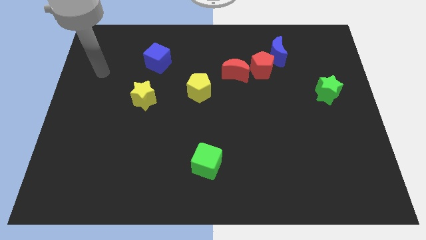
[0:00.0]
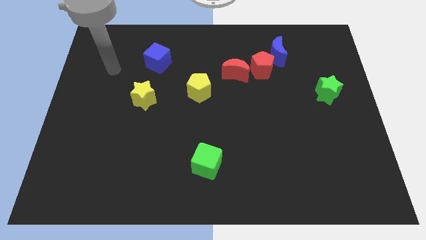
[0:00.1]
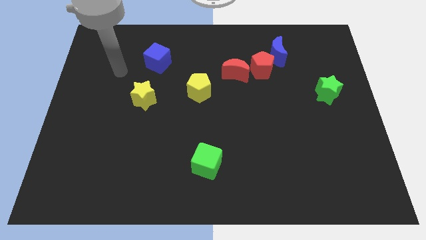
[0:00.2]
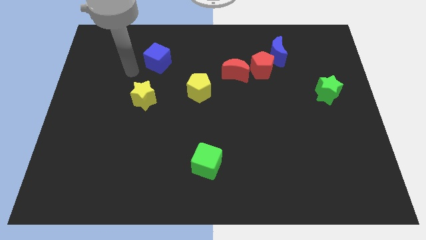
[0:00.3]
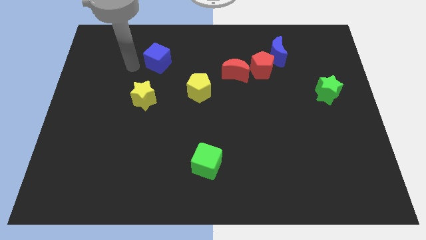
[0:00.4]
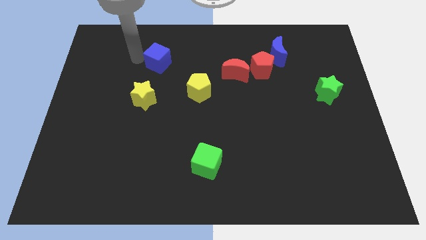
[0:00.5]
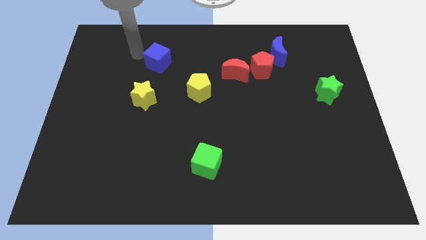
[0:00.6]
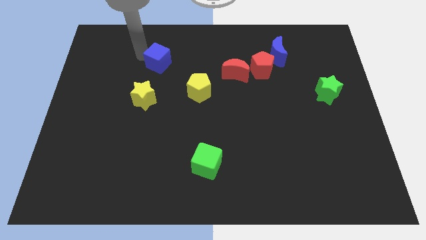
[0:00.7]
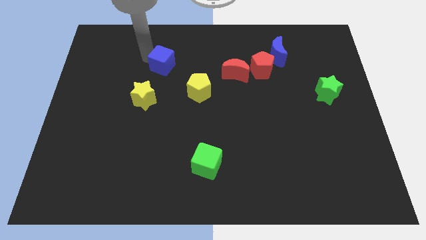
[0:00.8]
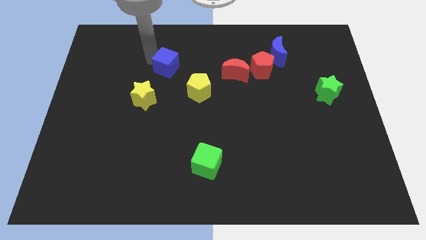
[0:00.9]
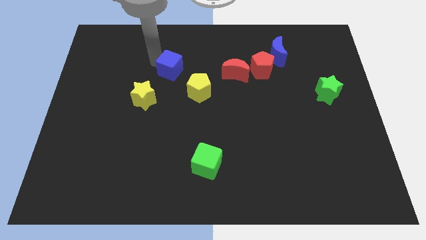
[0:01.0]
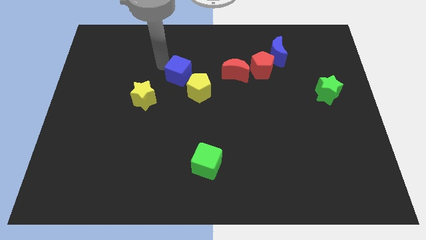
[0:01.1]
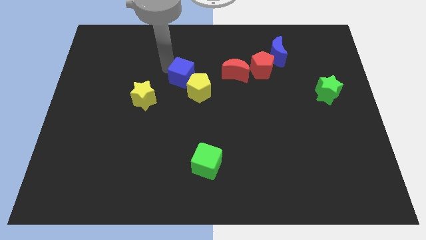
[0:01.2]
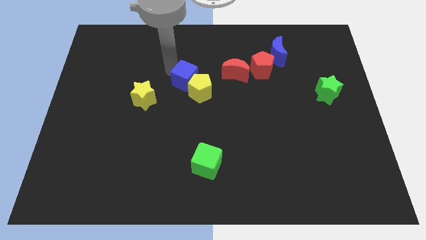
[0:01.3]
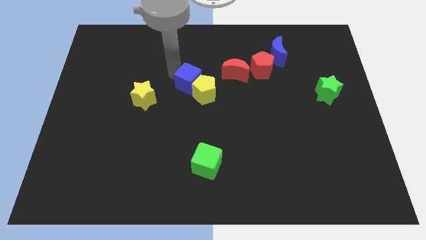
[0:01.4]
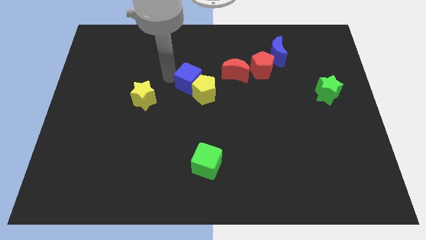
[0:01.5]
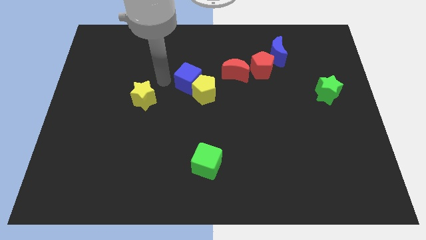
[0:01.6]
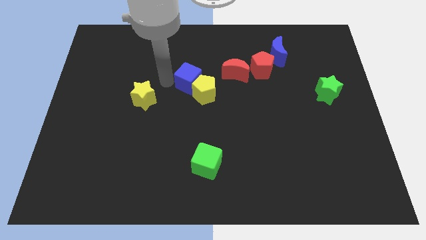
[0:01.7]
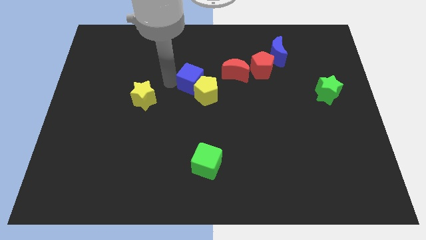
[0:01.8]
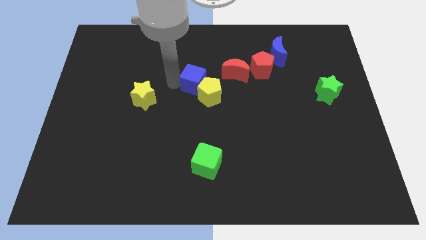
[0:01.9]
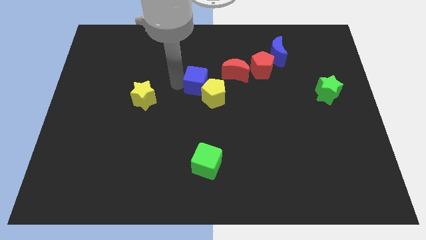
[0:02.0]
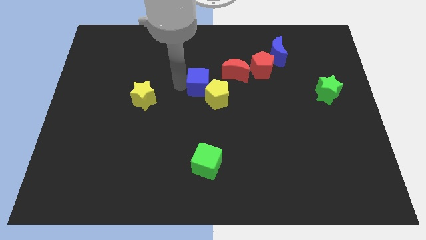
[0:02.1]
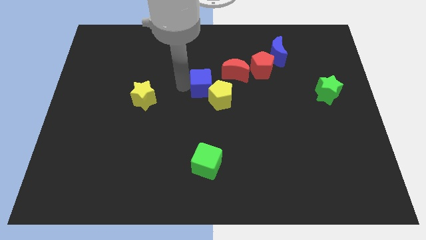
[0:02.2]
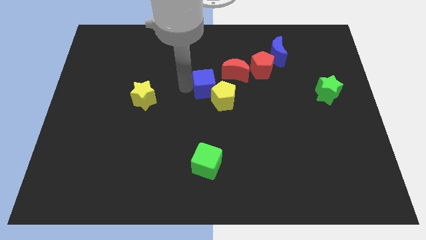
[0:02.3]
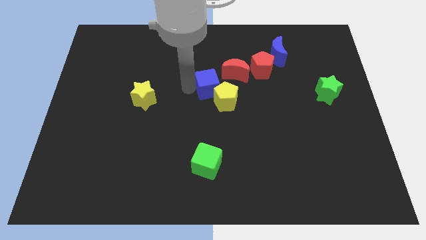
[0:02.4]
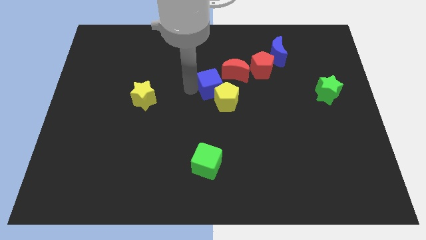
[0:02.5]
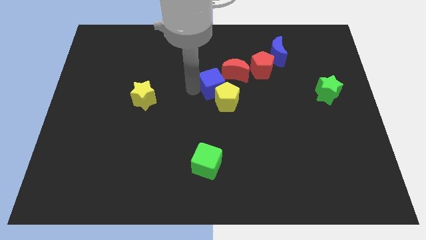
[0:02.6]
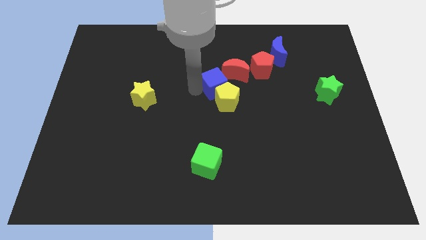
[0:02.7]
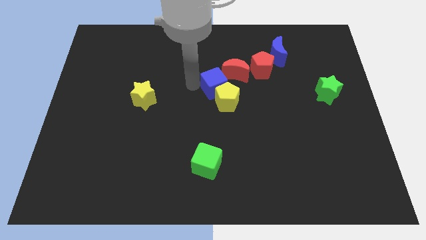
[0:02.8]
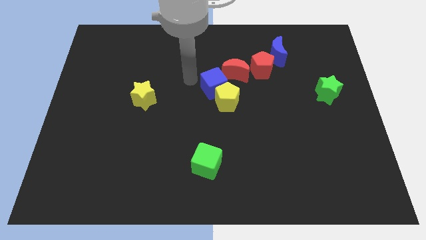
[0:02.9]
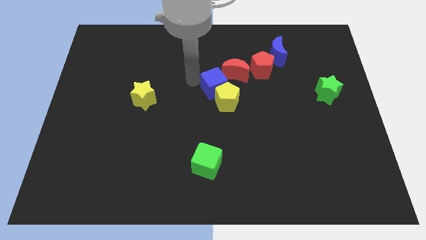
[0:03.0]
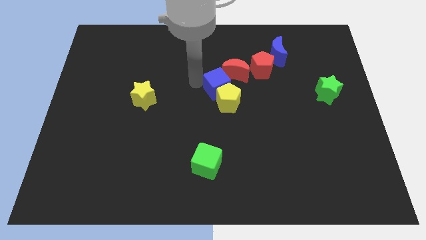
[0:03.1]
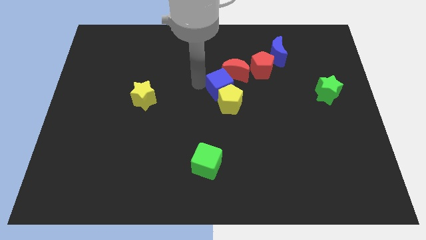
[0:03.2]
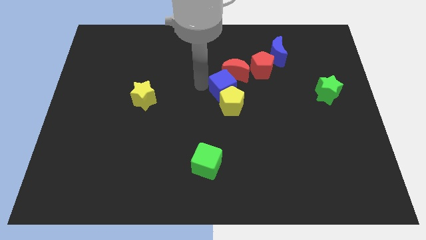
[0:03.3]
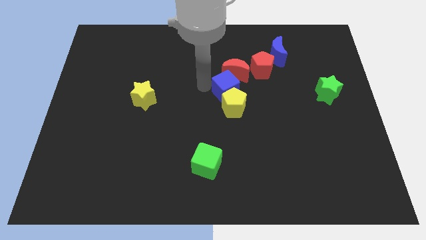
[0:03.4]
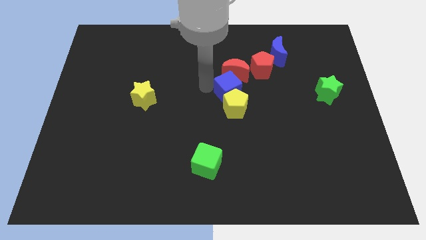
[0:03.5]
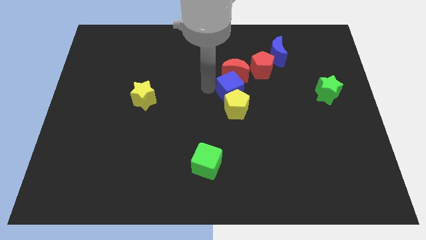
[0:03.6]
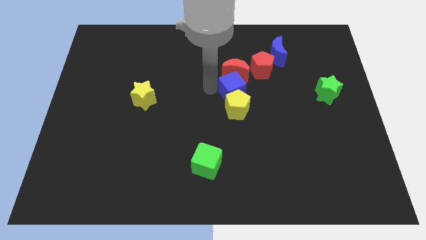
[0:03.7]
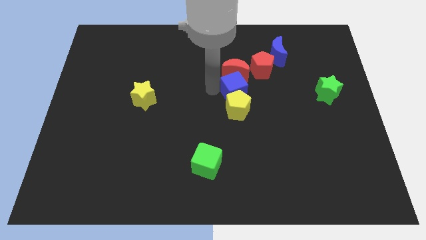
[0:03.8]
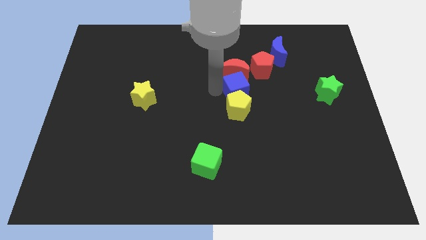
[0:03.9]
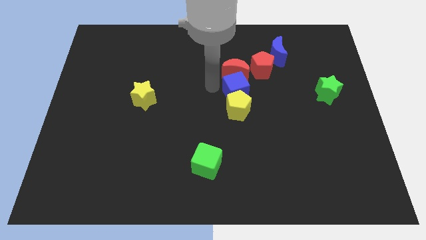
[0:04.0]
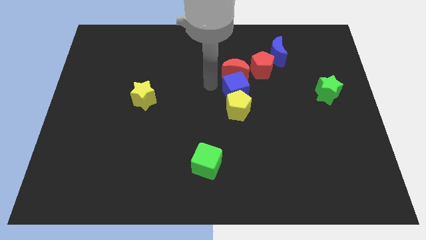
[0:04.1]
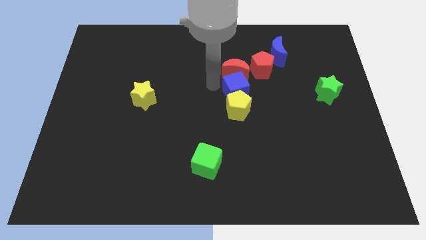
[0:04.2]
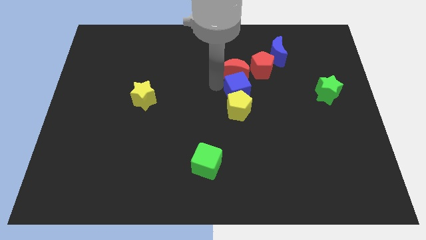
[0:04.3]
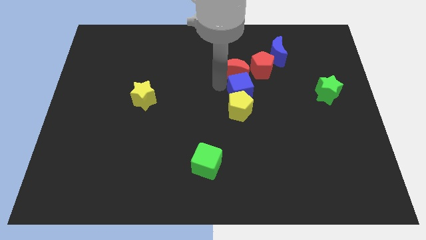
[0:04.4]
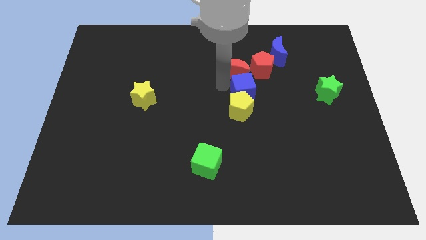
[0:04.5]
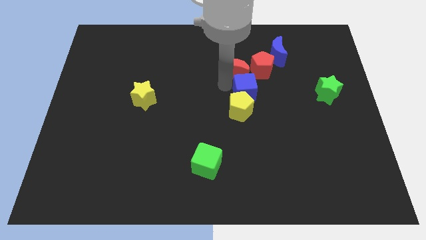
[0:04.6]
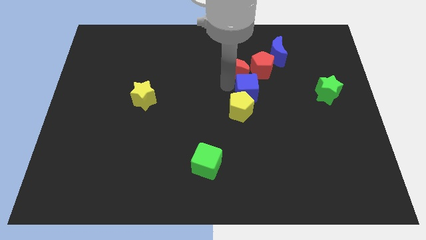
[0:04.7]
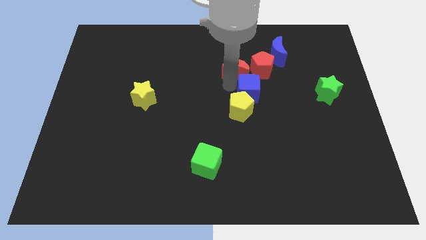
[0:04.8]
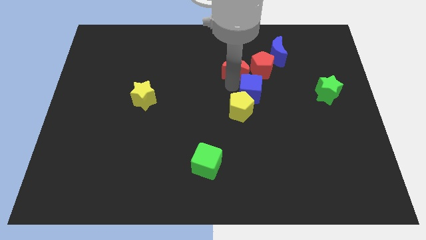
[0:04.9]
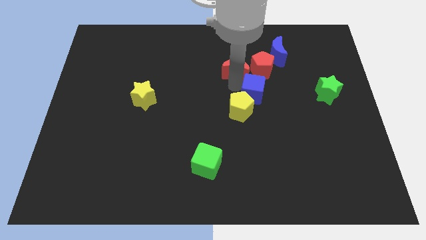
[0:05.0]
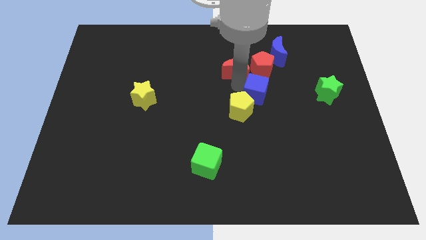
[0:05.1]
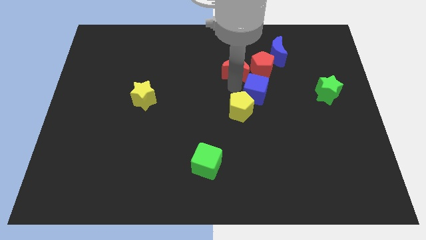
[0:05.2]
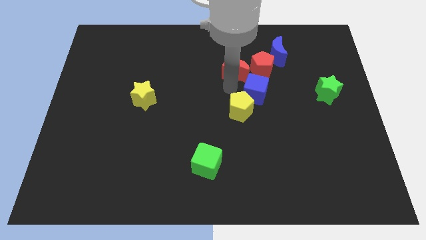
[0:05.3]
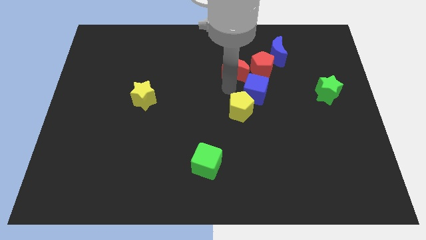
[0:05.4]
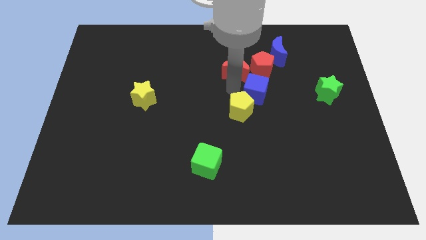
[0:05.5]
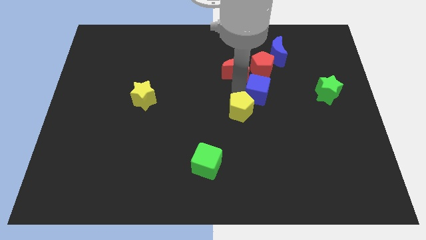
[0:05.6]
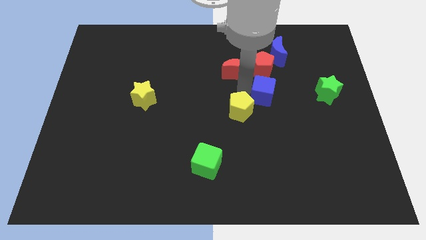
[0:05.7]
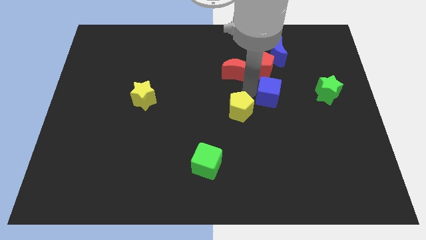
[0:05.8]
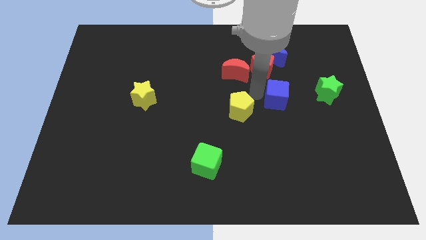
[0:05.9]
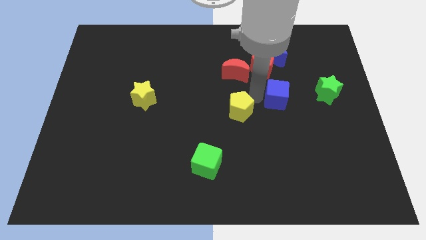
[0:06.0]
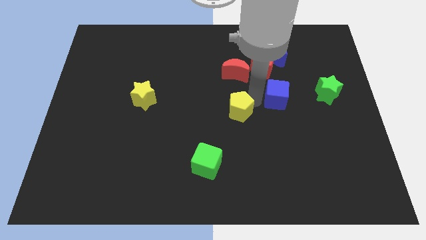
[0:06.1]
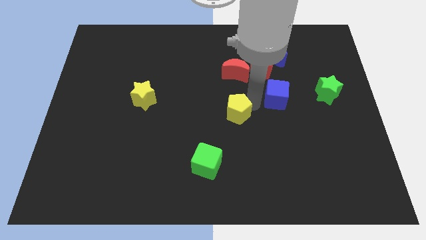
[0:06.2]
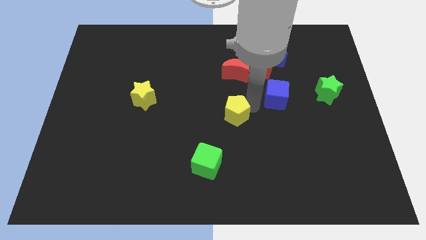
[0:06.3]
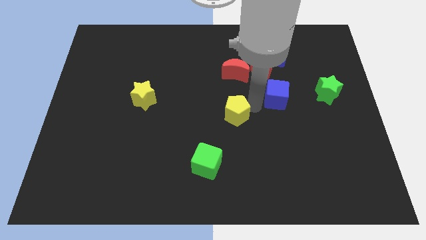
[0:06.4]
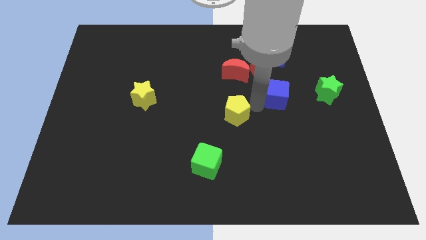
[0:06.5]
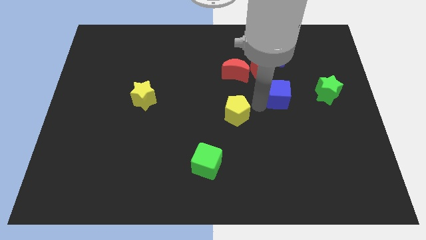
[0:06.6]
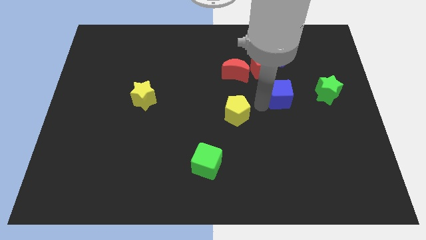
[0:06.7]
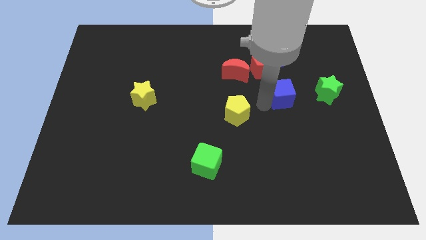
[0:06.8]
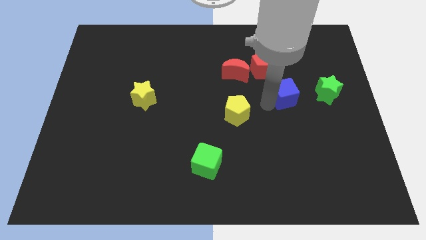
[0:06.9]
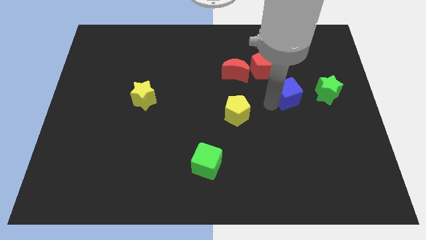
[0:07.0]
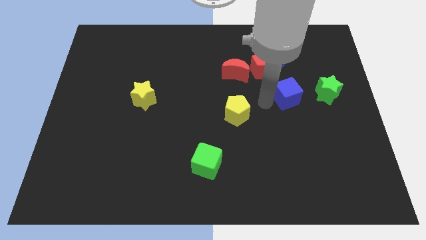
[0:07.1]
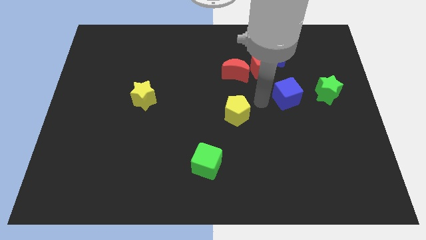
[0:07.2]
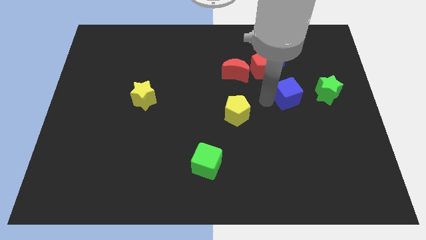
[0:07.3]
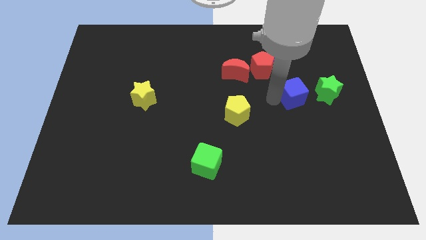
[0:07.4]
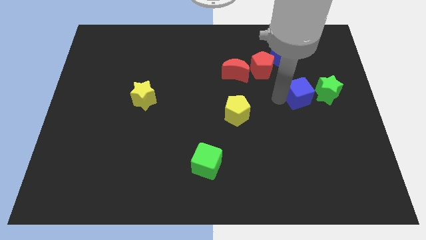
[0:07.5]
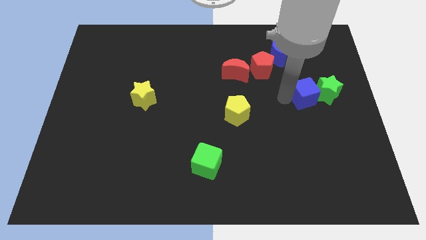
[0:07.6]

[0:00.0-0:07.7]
put the blue cube to the green star
